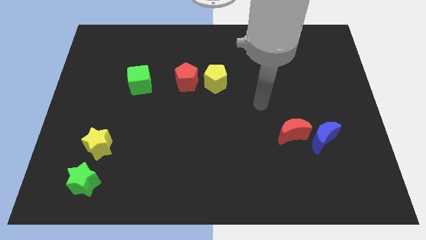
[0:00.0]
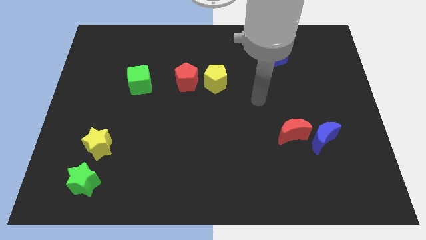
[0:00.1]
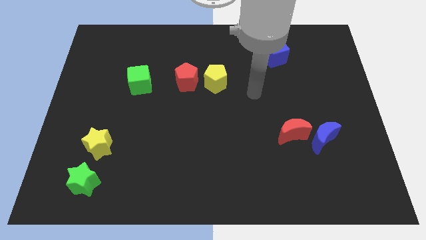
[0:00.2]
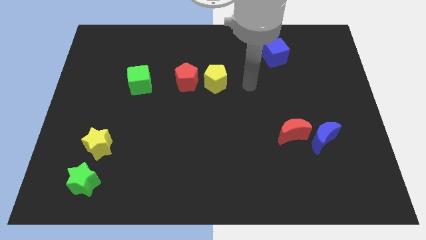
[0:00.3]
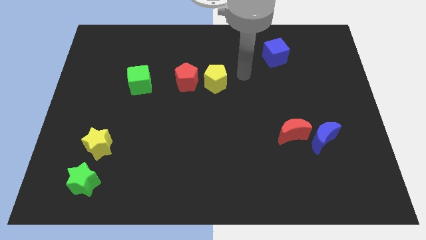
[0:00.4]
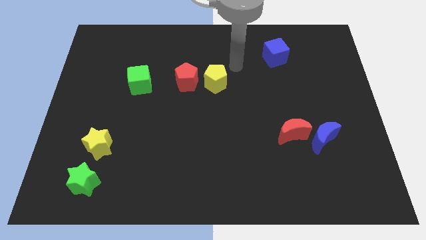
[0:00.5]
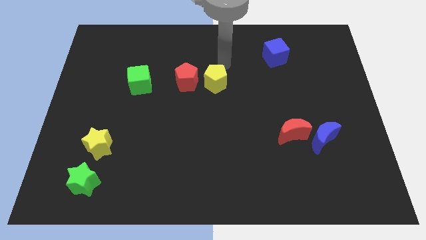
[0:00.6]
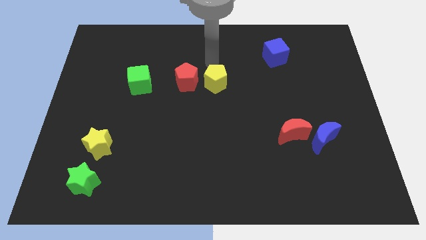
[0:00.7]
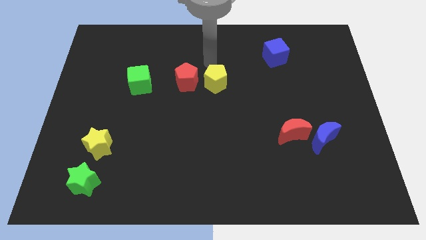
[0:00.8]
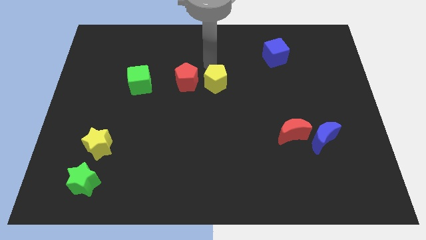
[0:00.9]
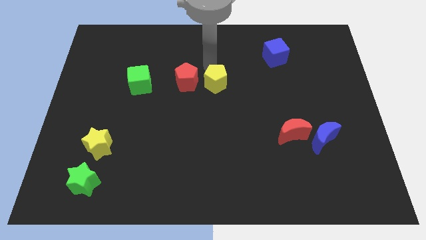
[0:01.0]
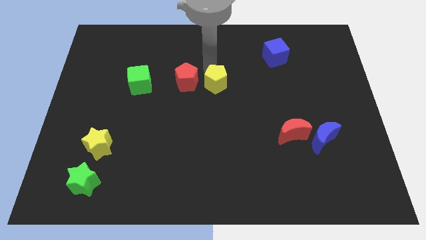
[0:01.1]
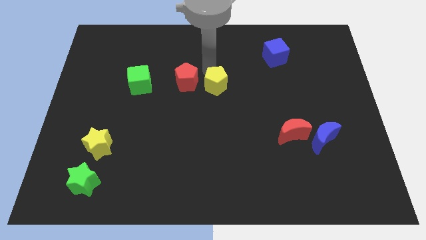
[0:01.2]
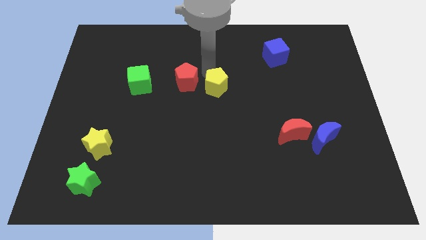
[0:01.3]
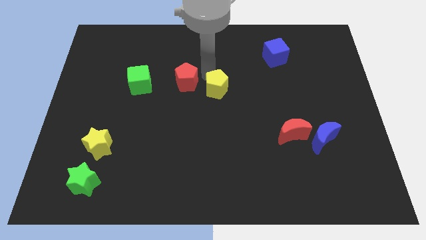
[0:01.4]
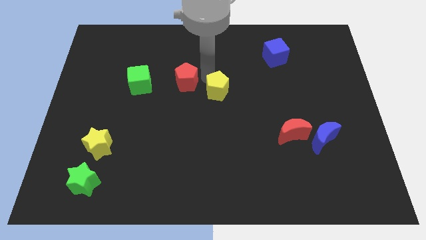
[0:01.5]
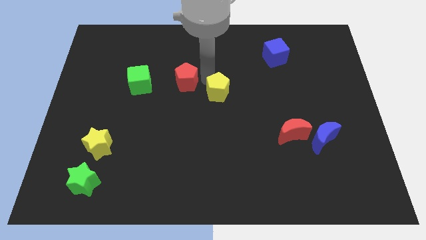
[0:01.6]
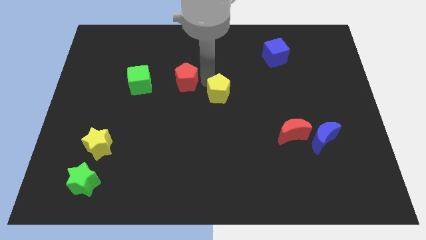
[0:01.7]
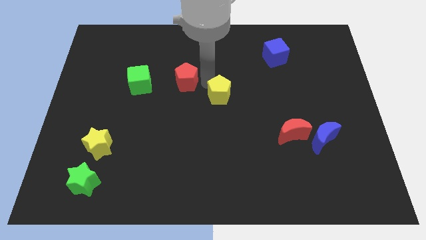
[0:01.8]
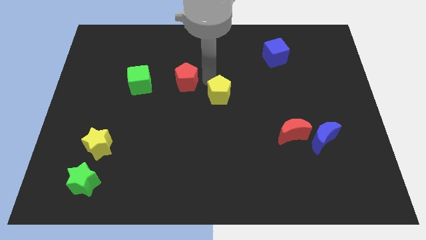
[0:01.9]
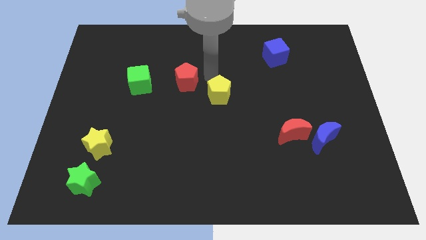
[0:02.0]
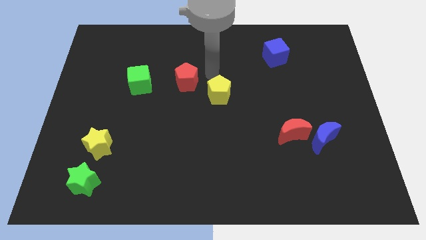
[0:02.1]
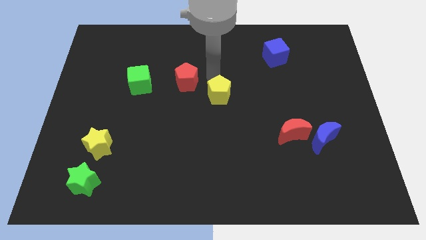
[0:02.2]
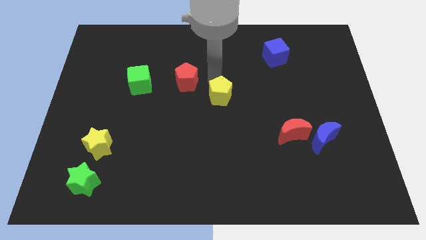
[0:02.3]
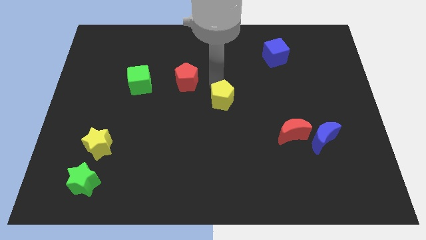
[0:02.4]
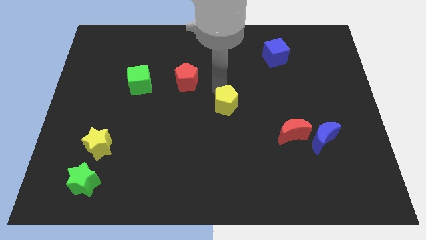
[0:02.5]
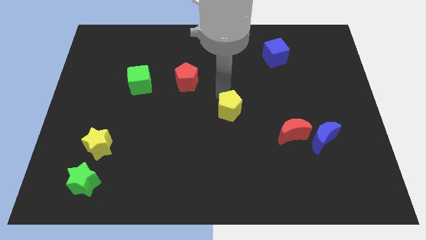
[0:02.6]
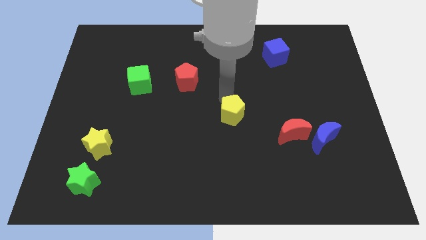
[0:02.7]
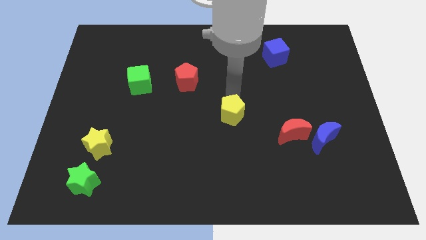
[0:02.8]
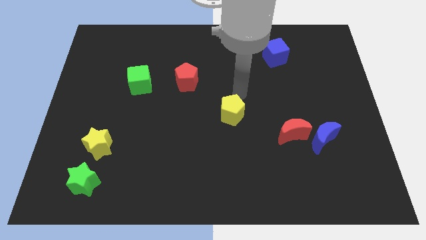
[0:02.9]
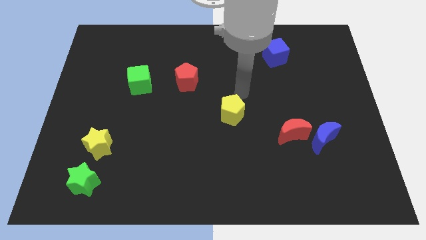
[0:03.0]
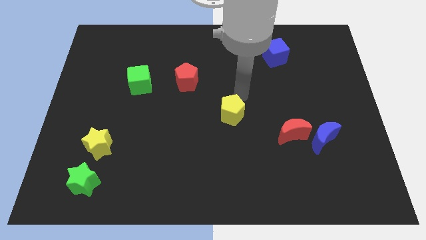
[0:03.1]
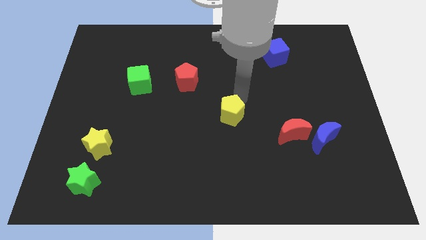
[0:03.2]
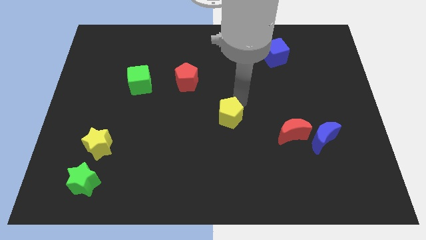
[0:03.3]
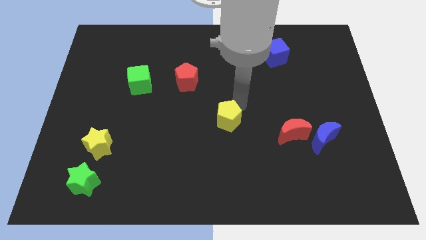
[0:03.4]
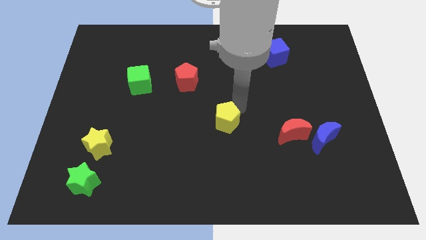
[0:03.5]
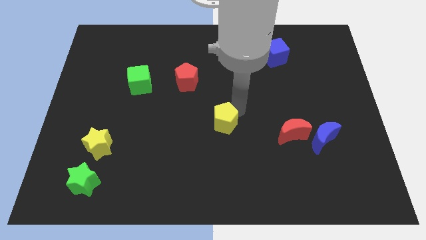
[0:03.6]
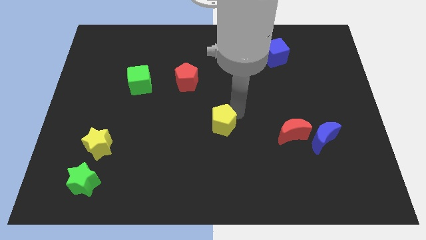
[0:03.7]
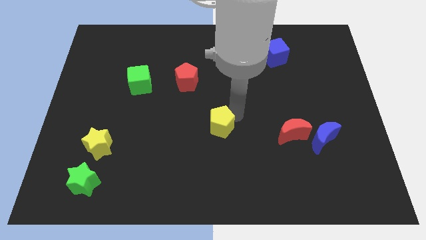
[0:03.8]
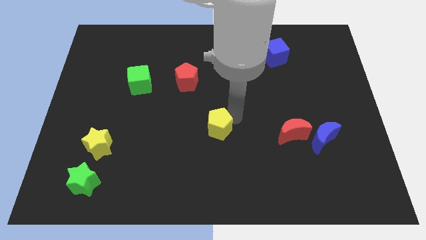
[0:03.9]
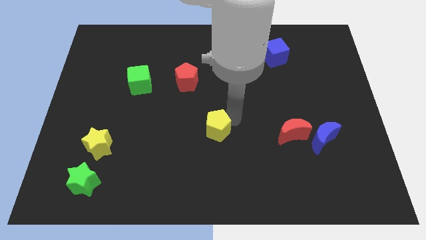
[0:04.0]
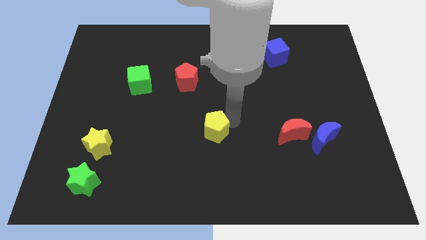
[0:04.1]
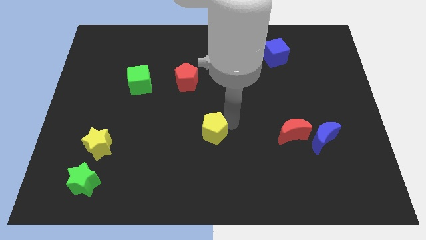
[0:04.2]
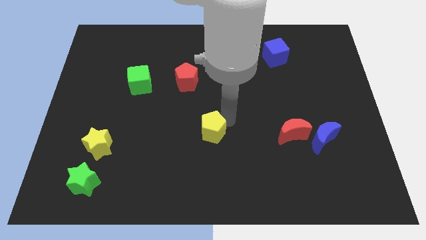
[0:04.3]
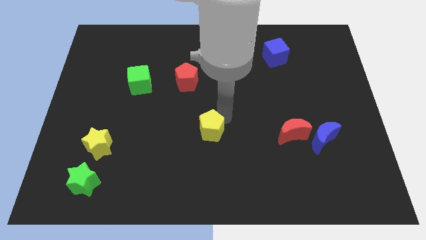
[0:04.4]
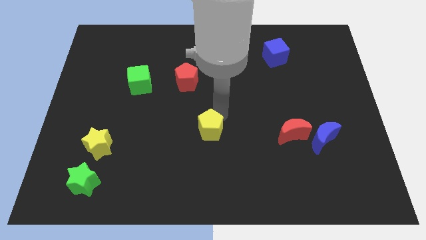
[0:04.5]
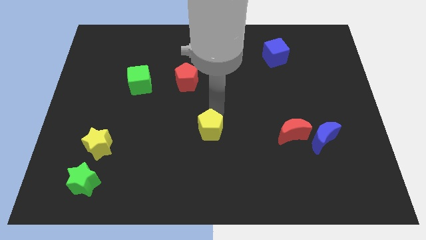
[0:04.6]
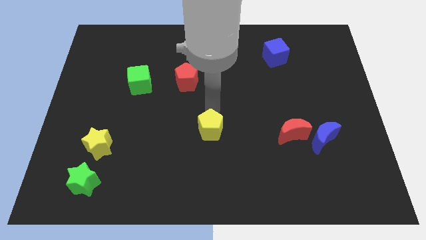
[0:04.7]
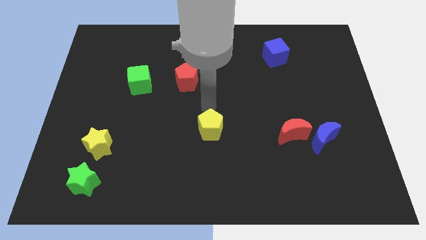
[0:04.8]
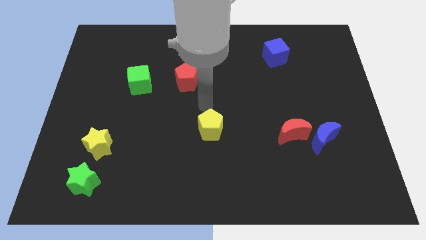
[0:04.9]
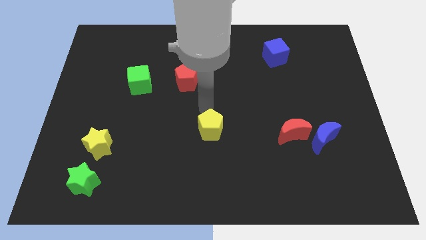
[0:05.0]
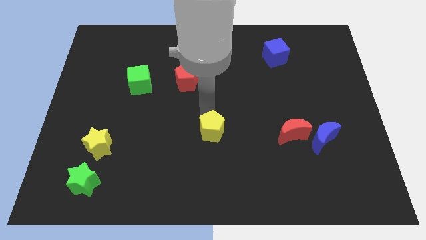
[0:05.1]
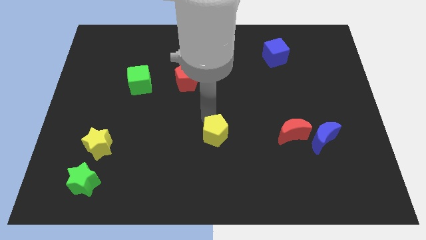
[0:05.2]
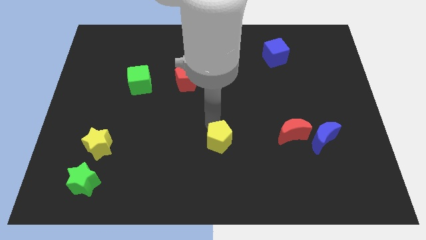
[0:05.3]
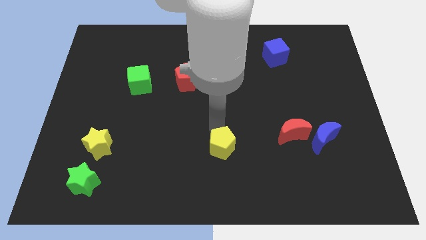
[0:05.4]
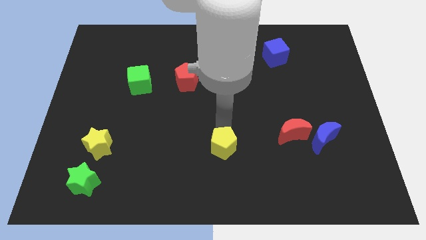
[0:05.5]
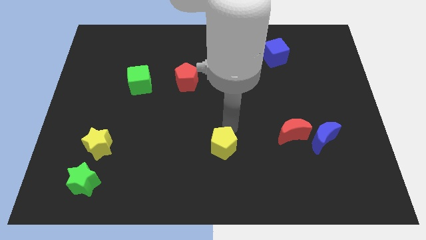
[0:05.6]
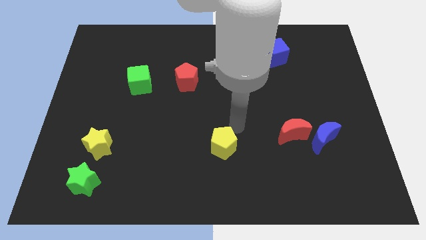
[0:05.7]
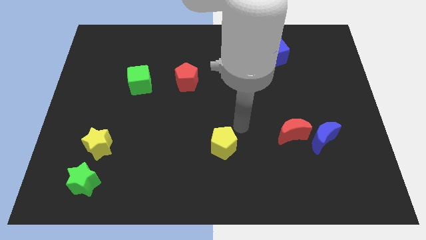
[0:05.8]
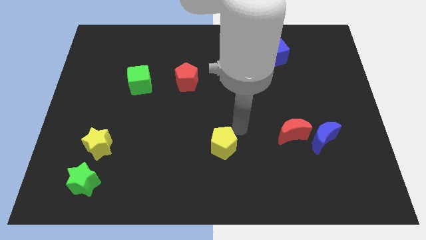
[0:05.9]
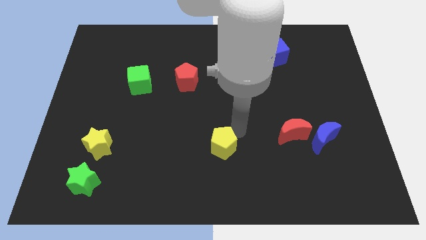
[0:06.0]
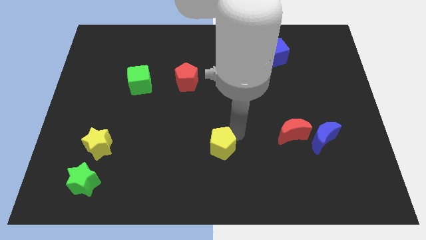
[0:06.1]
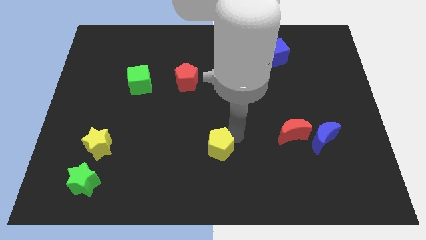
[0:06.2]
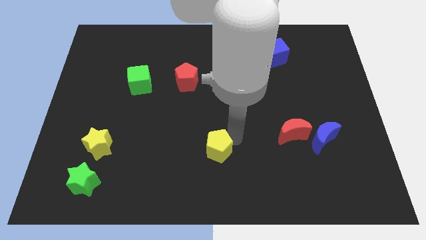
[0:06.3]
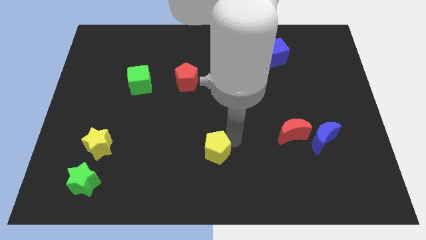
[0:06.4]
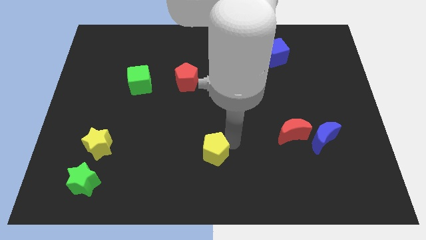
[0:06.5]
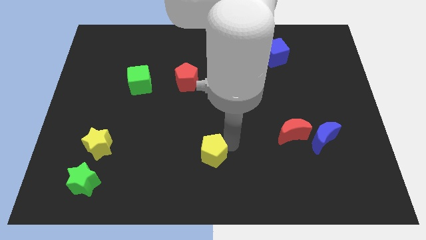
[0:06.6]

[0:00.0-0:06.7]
push the yellow pentagon to the bottom side

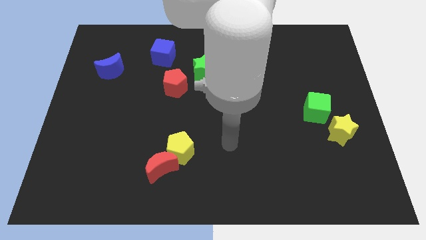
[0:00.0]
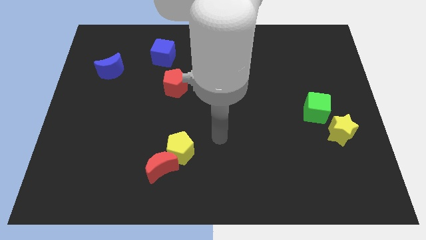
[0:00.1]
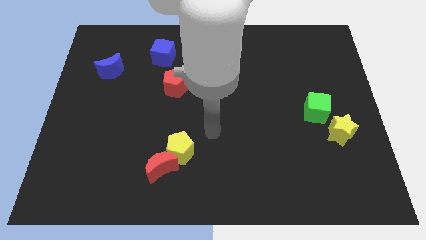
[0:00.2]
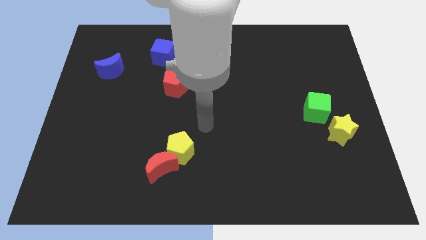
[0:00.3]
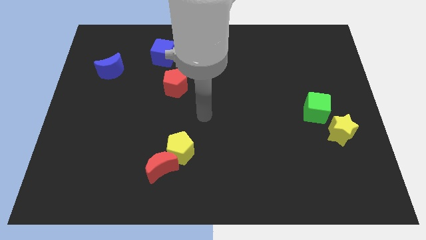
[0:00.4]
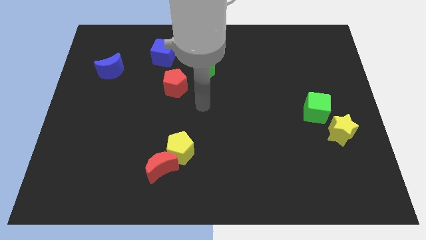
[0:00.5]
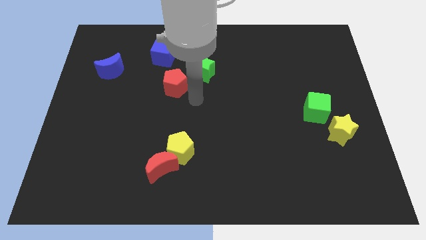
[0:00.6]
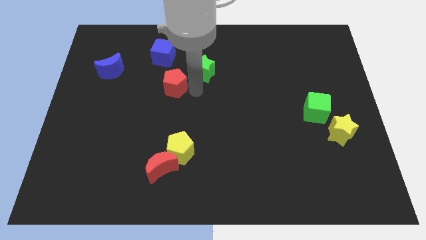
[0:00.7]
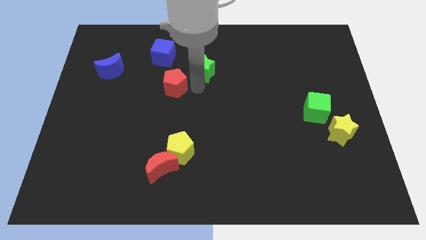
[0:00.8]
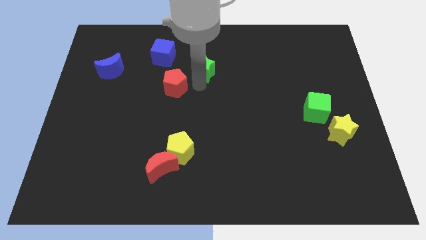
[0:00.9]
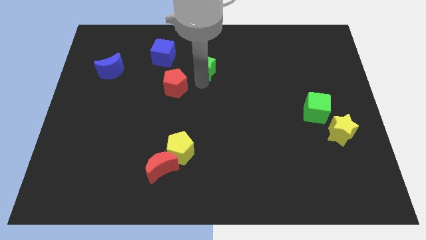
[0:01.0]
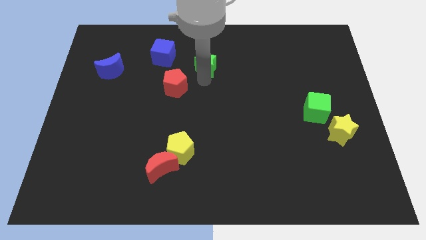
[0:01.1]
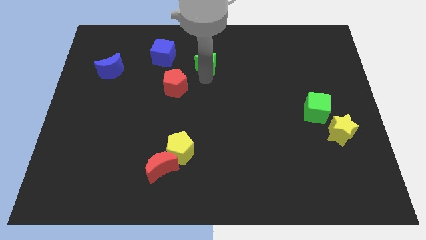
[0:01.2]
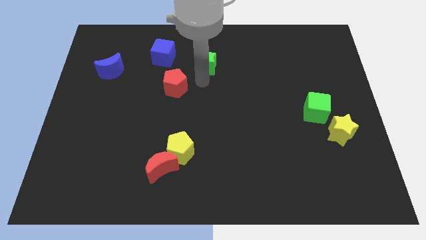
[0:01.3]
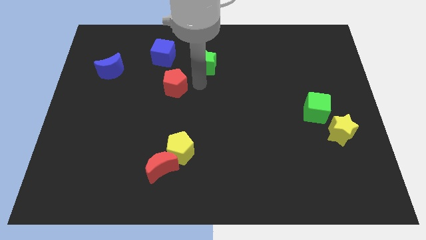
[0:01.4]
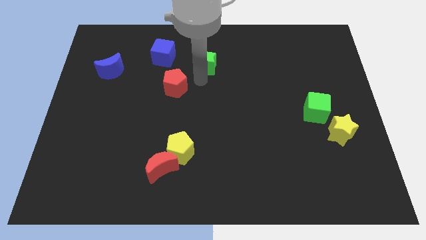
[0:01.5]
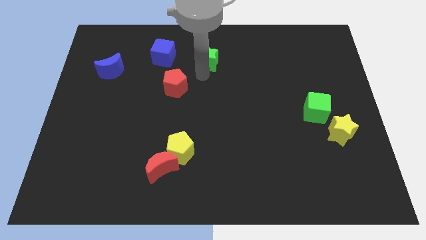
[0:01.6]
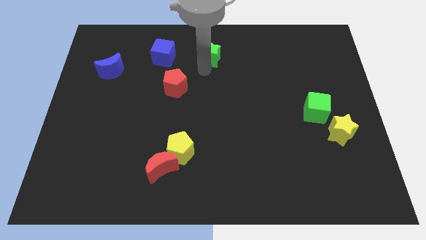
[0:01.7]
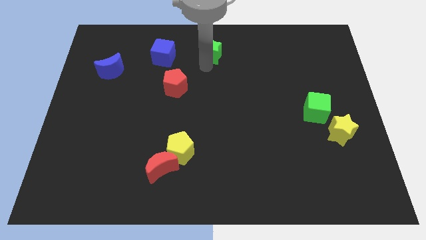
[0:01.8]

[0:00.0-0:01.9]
put the green star to the top
